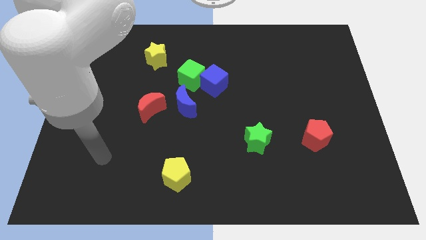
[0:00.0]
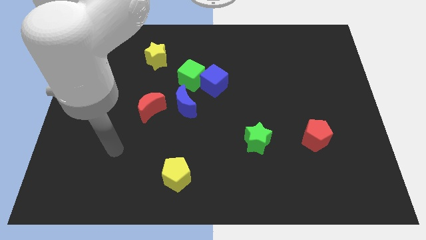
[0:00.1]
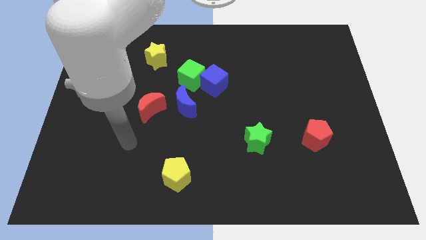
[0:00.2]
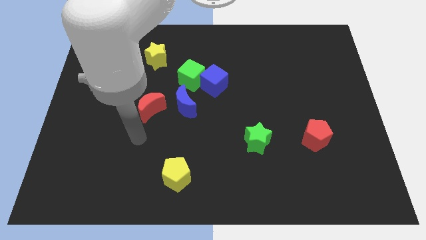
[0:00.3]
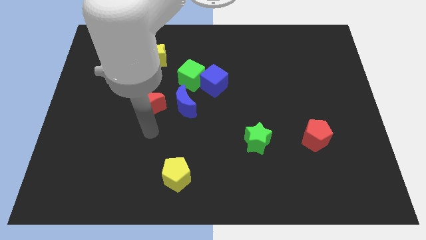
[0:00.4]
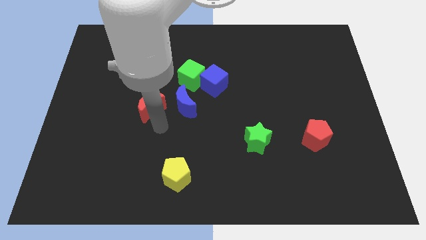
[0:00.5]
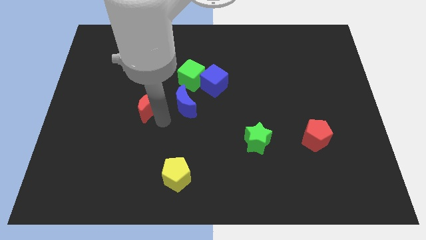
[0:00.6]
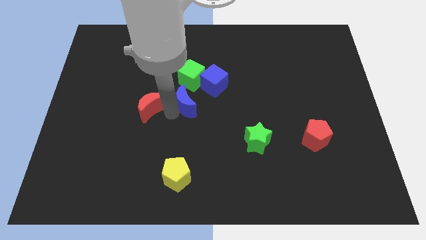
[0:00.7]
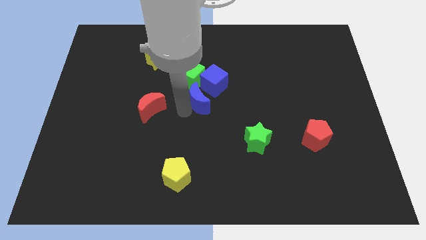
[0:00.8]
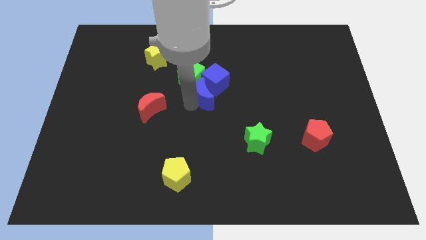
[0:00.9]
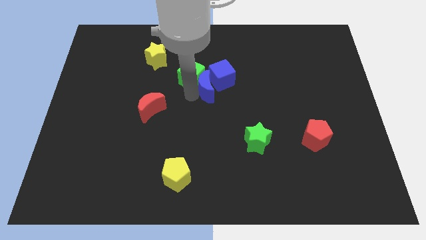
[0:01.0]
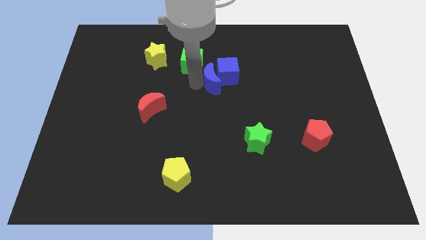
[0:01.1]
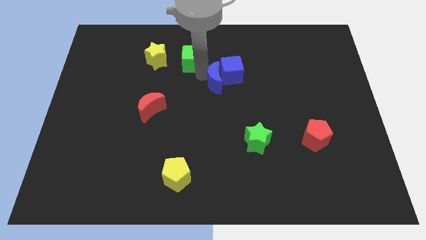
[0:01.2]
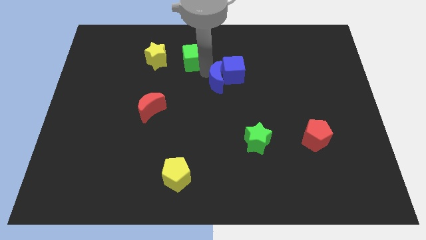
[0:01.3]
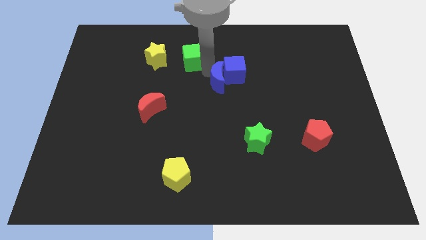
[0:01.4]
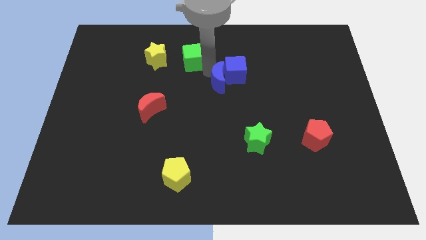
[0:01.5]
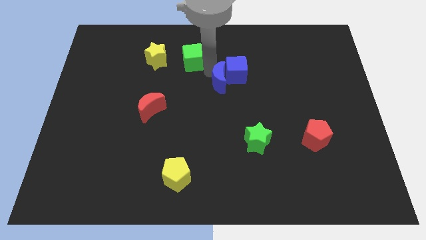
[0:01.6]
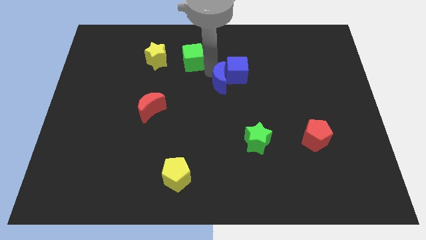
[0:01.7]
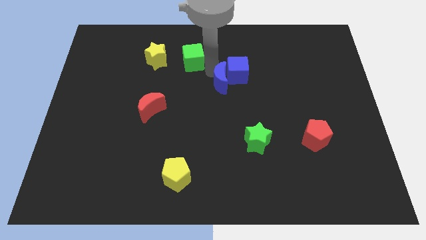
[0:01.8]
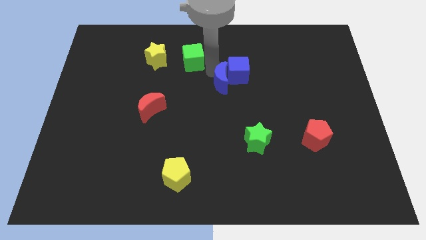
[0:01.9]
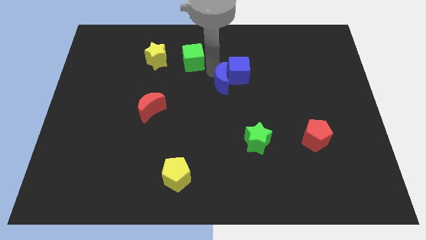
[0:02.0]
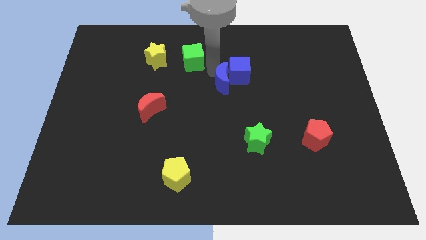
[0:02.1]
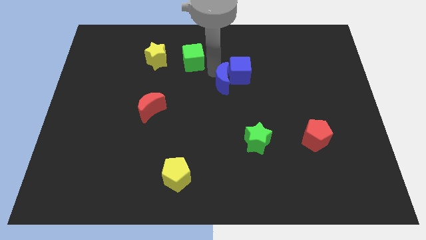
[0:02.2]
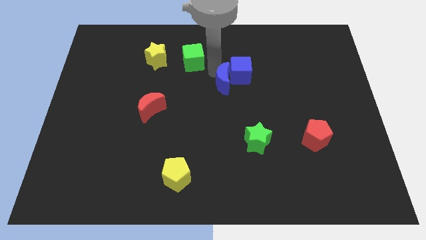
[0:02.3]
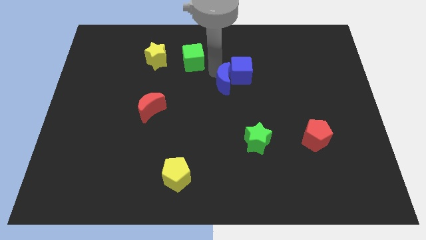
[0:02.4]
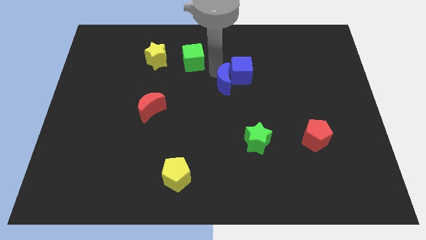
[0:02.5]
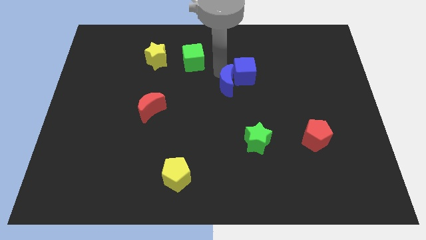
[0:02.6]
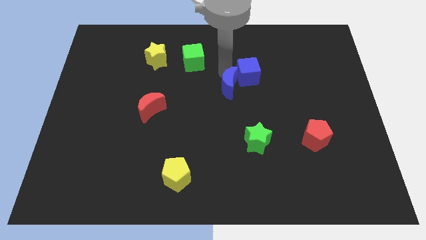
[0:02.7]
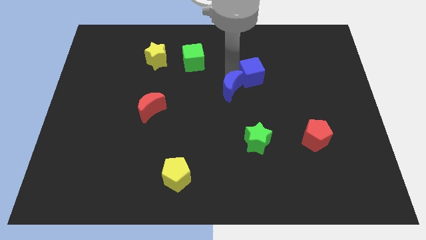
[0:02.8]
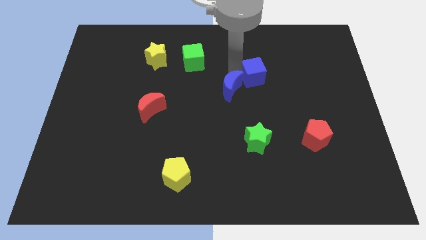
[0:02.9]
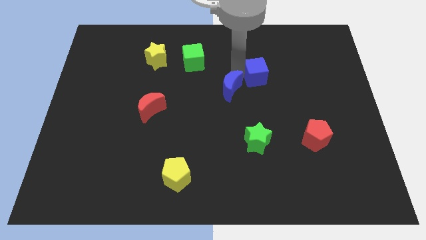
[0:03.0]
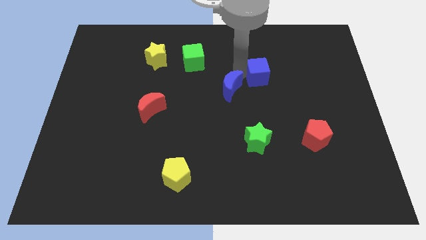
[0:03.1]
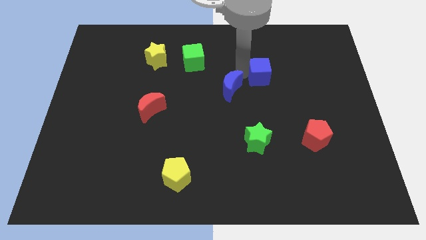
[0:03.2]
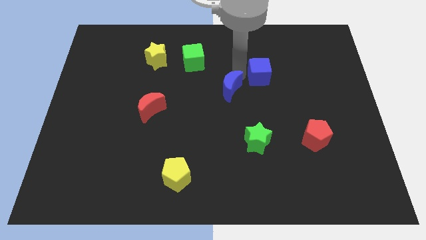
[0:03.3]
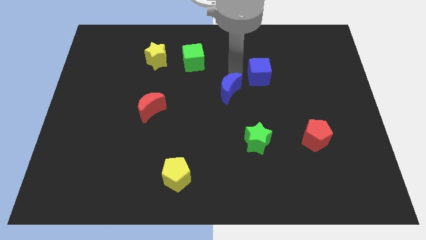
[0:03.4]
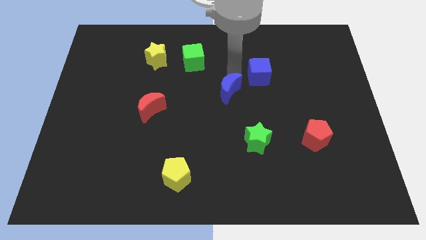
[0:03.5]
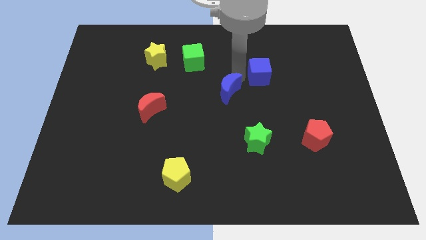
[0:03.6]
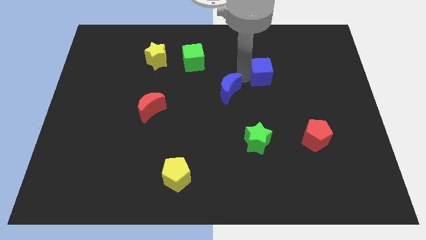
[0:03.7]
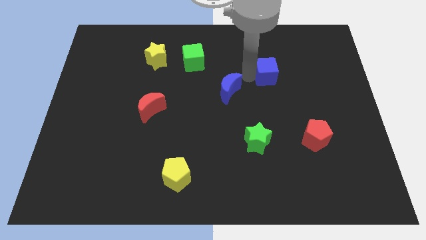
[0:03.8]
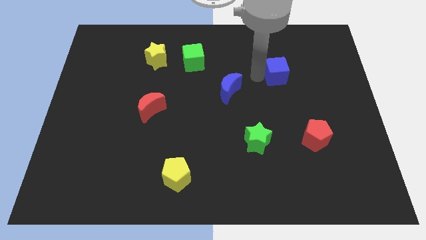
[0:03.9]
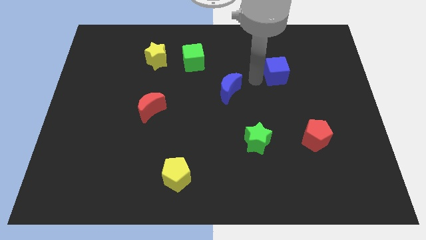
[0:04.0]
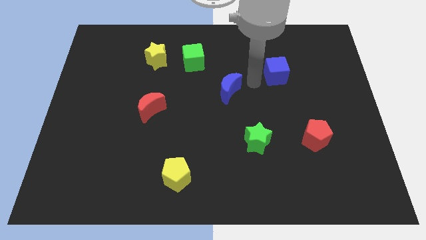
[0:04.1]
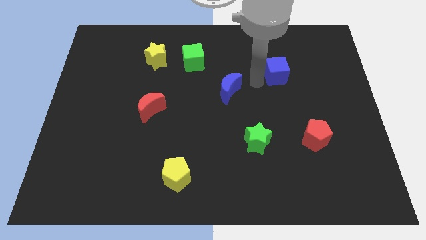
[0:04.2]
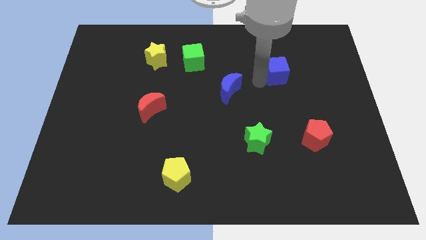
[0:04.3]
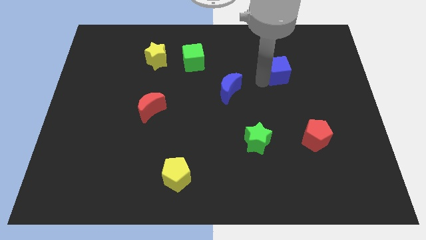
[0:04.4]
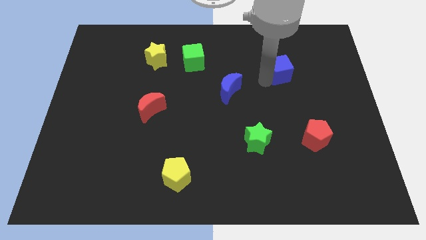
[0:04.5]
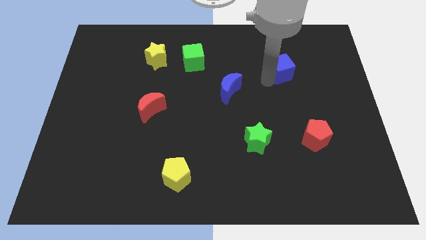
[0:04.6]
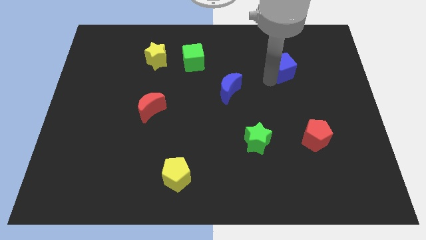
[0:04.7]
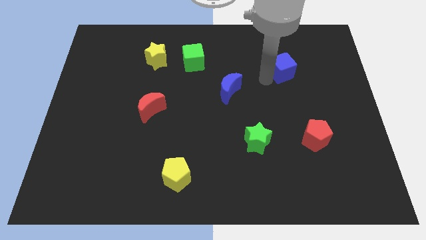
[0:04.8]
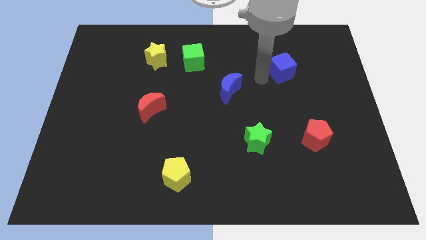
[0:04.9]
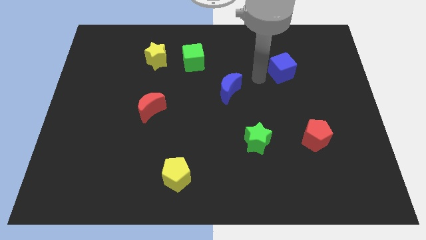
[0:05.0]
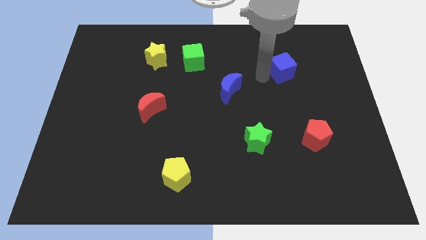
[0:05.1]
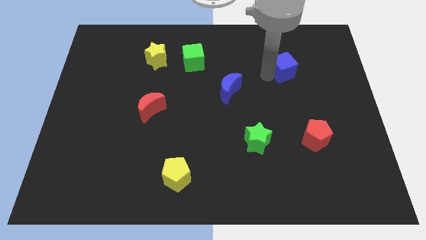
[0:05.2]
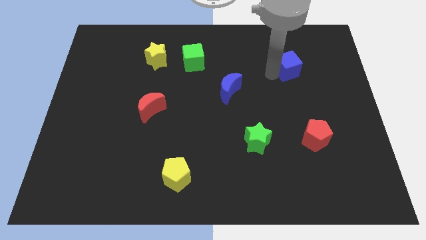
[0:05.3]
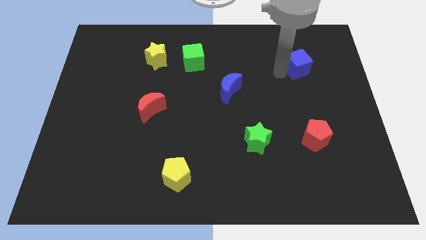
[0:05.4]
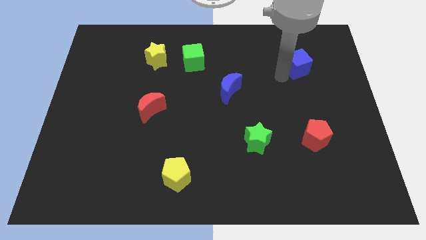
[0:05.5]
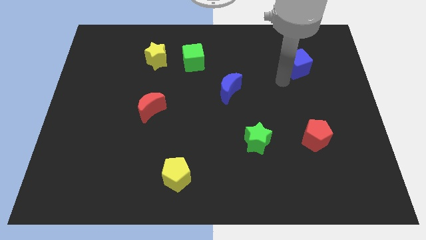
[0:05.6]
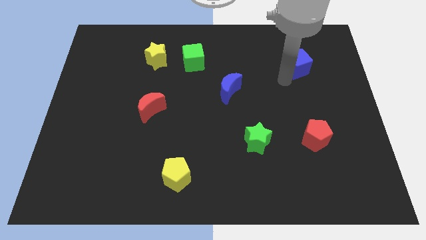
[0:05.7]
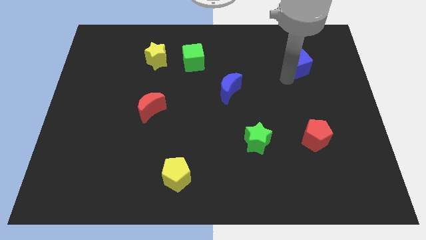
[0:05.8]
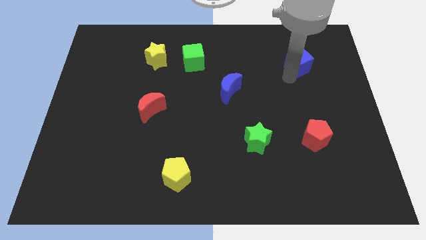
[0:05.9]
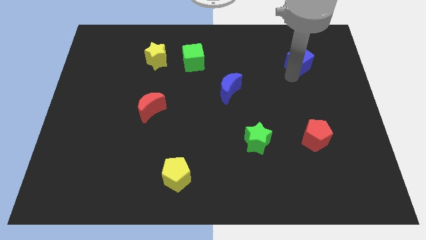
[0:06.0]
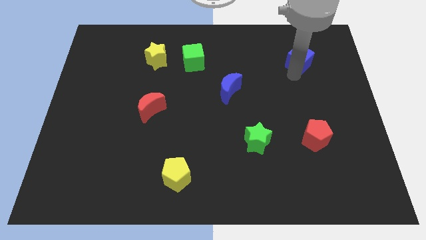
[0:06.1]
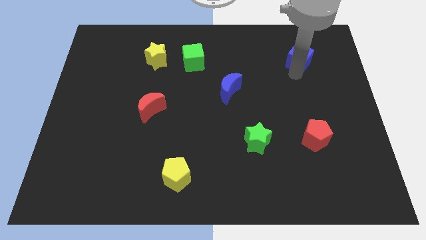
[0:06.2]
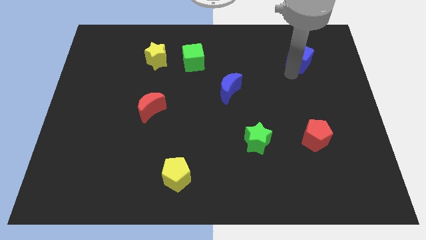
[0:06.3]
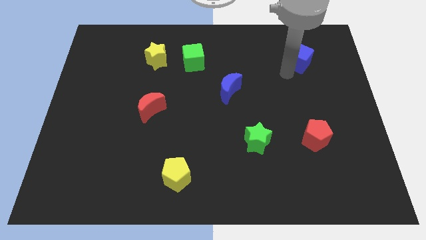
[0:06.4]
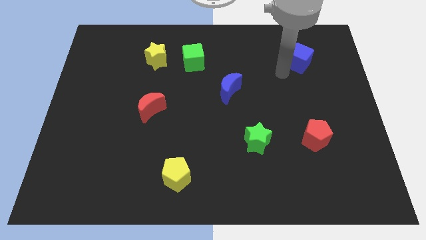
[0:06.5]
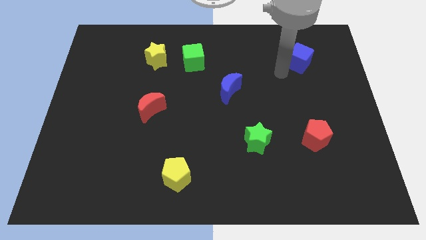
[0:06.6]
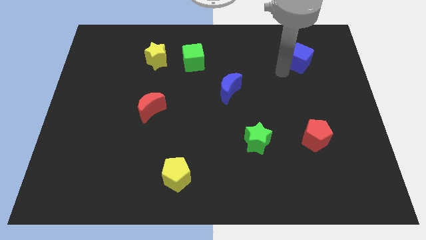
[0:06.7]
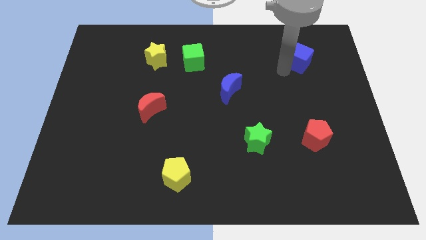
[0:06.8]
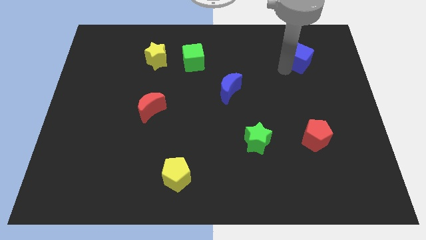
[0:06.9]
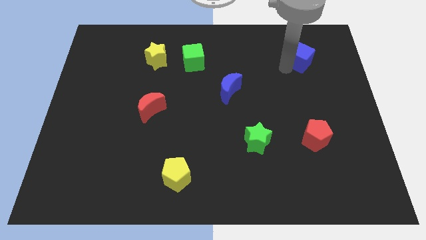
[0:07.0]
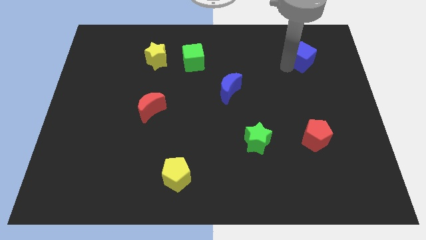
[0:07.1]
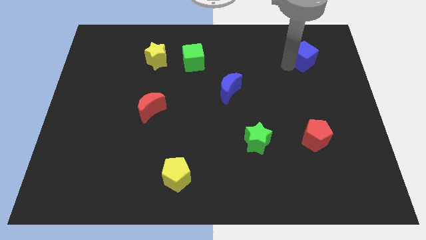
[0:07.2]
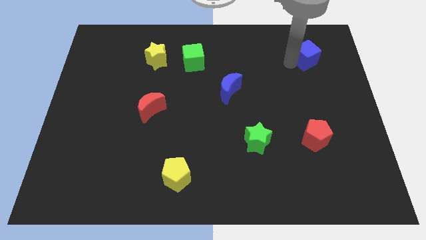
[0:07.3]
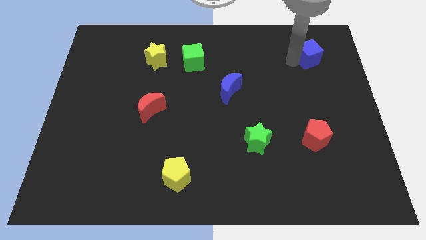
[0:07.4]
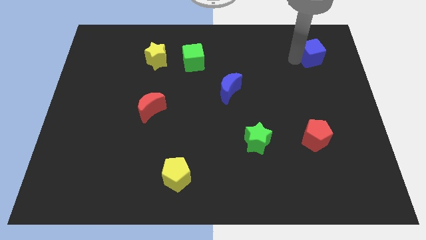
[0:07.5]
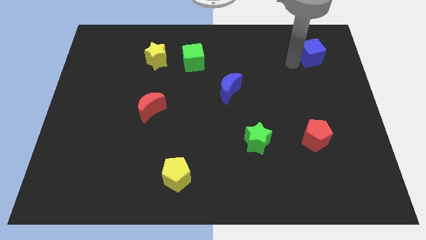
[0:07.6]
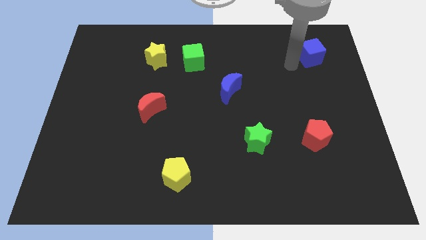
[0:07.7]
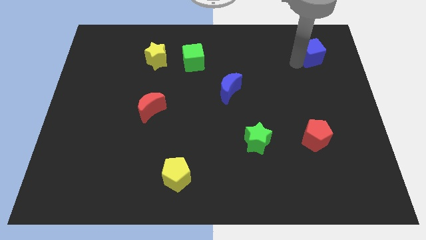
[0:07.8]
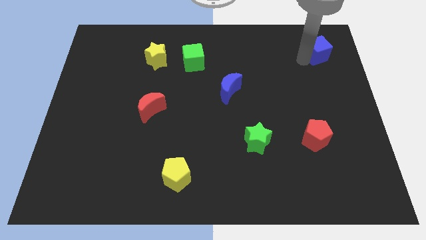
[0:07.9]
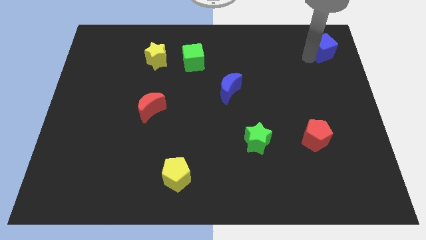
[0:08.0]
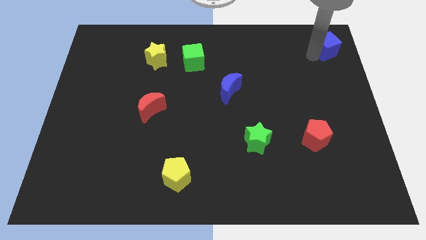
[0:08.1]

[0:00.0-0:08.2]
slide the blue cube to the top right of the board
